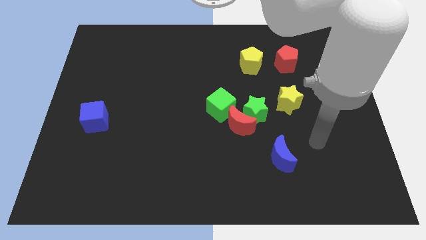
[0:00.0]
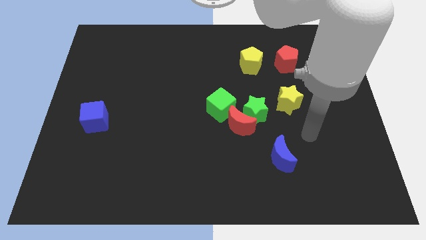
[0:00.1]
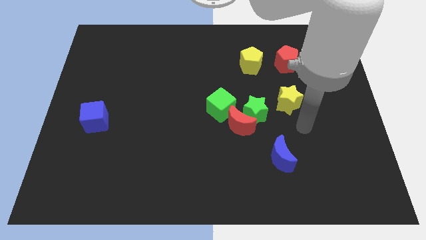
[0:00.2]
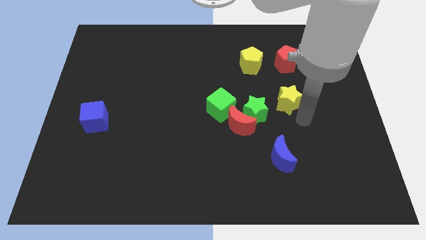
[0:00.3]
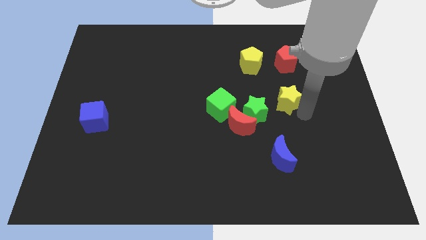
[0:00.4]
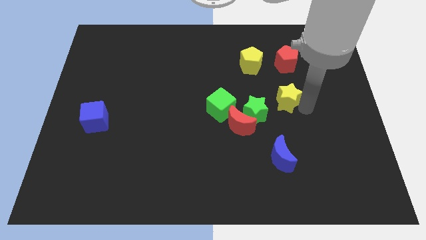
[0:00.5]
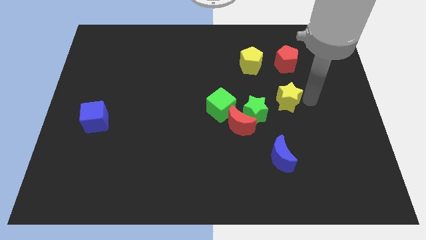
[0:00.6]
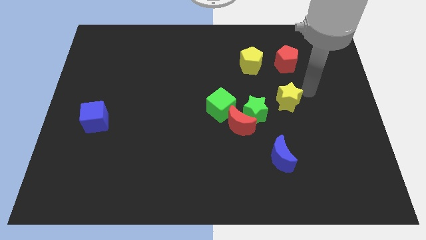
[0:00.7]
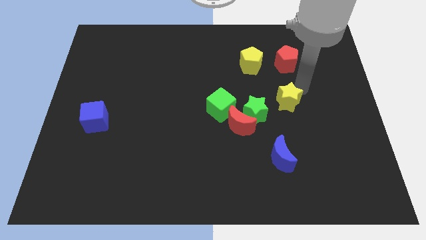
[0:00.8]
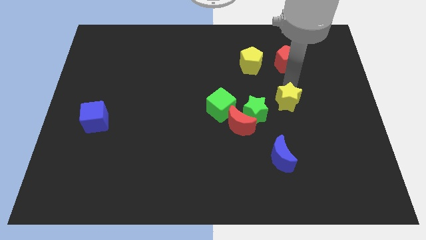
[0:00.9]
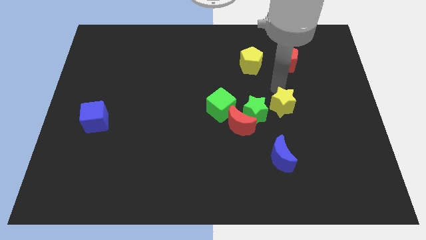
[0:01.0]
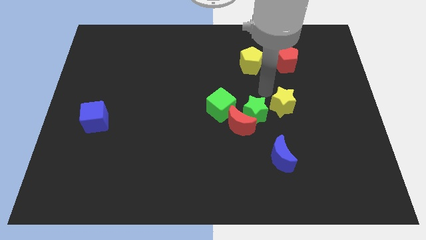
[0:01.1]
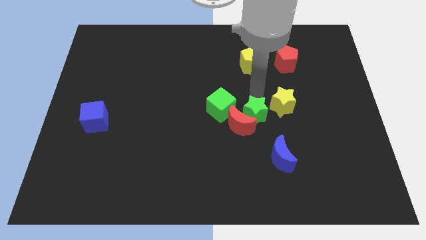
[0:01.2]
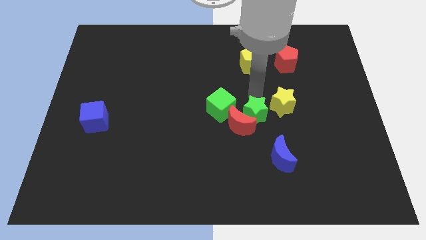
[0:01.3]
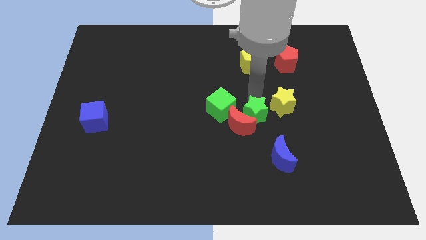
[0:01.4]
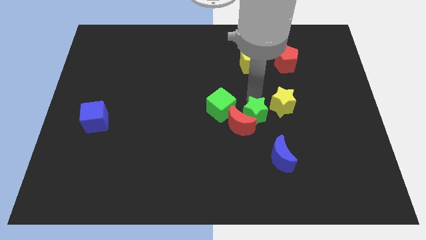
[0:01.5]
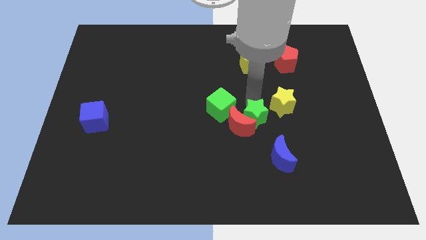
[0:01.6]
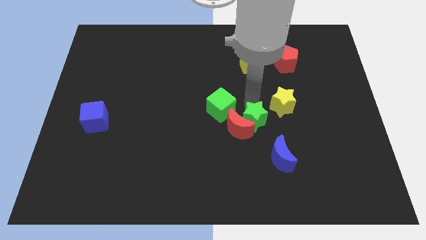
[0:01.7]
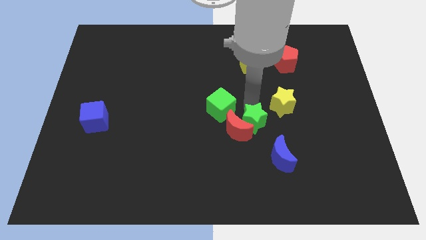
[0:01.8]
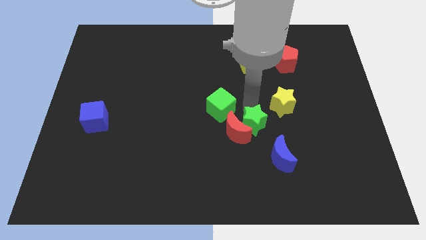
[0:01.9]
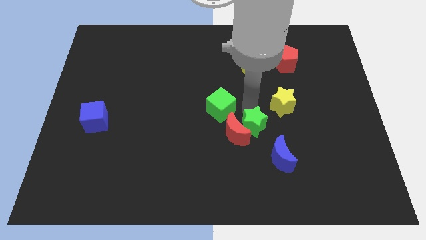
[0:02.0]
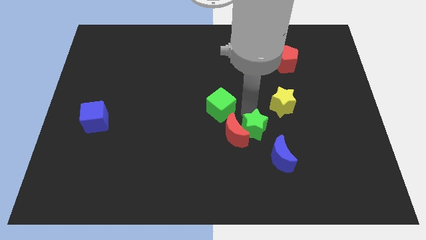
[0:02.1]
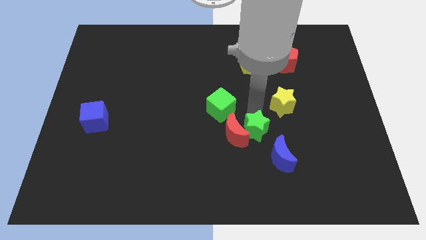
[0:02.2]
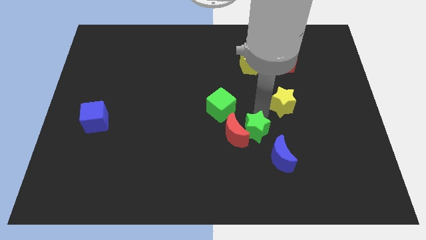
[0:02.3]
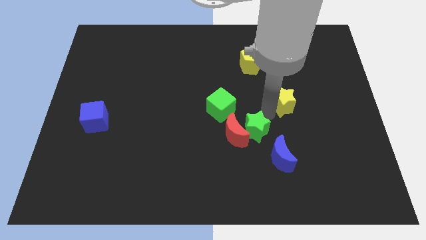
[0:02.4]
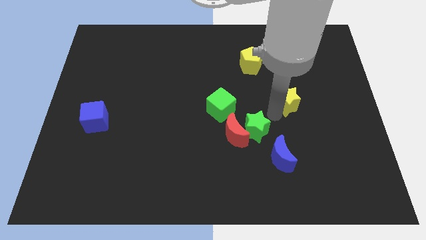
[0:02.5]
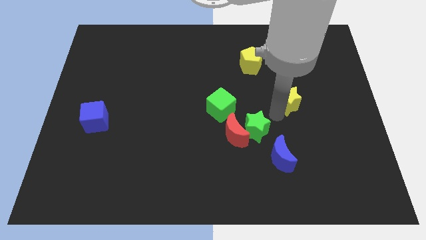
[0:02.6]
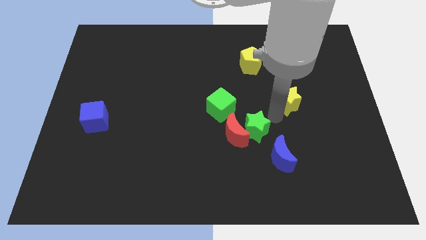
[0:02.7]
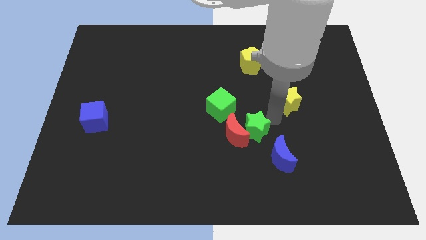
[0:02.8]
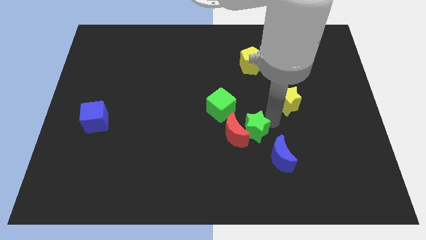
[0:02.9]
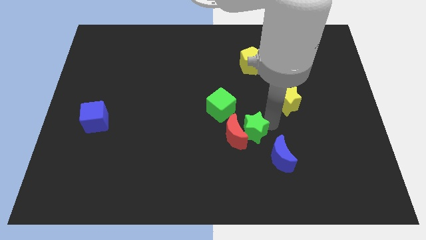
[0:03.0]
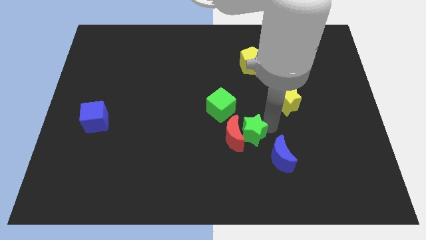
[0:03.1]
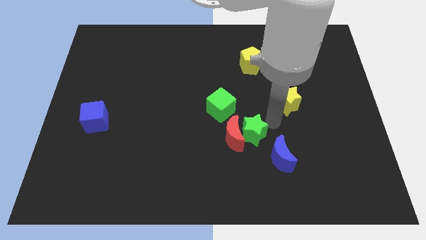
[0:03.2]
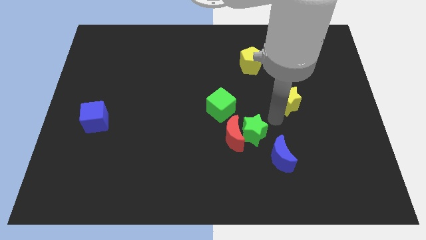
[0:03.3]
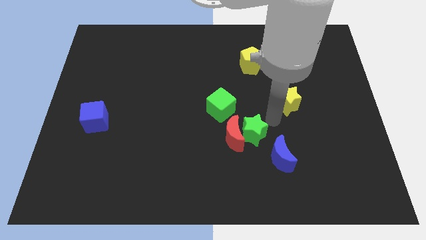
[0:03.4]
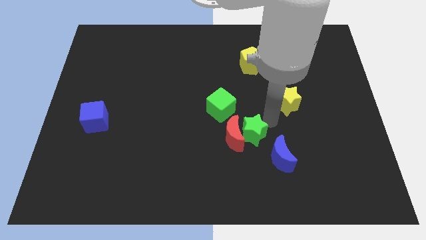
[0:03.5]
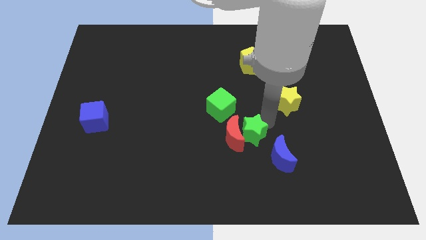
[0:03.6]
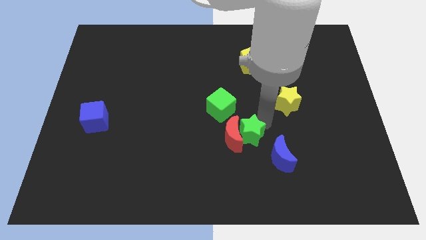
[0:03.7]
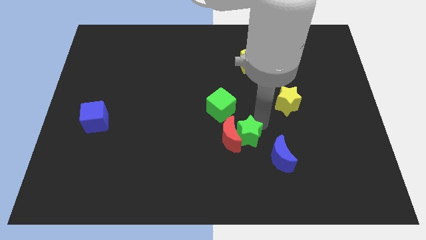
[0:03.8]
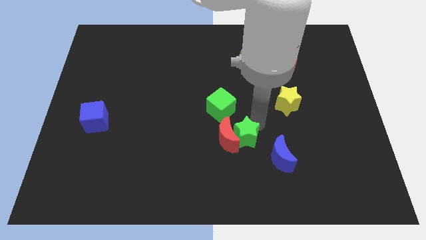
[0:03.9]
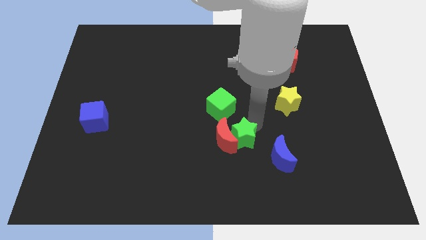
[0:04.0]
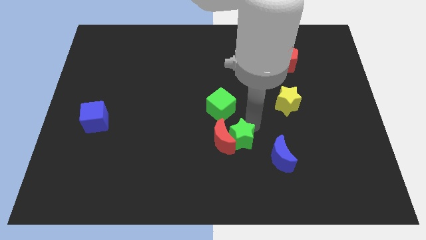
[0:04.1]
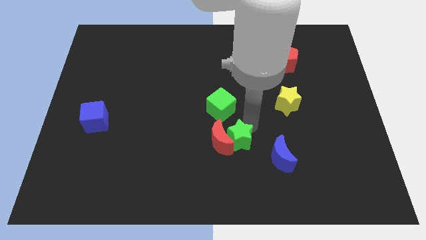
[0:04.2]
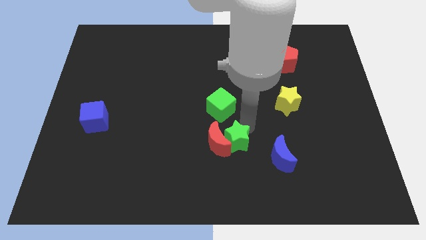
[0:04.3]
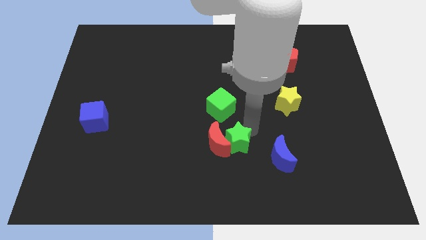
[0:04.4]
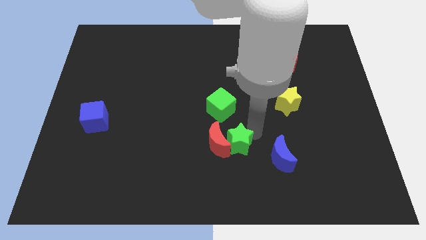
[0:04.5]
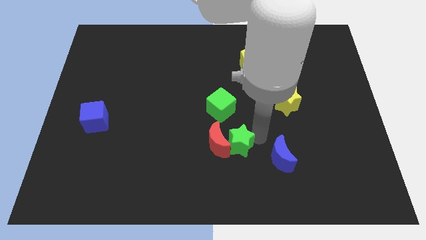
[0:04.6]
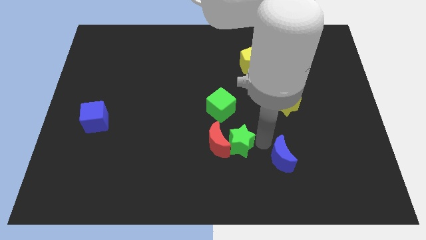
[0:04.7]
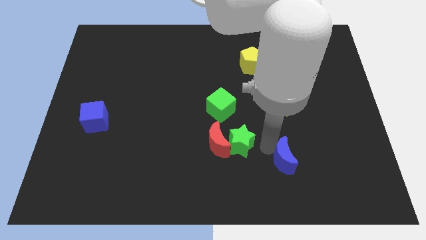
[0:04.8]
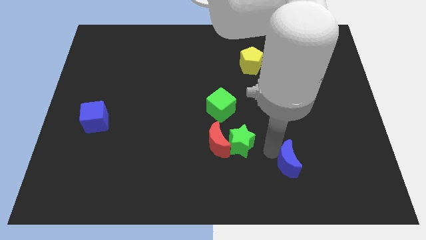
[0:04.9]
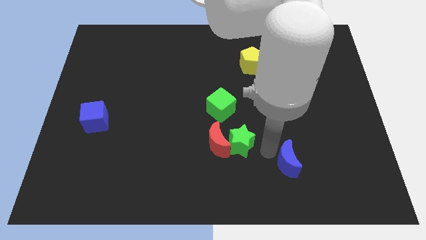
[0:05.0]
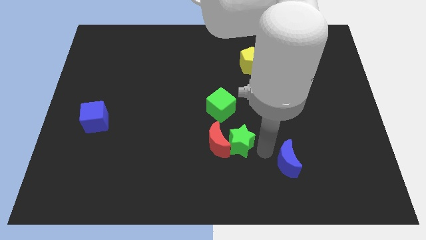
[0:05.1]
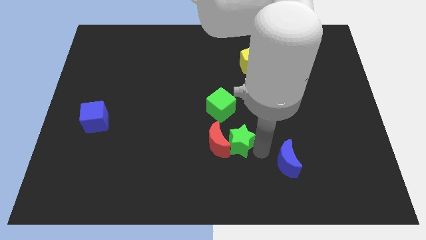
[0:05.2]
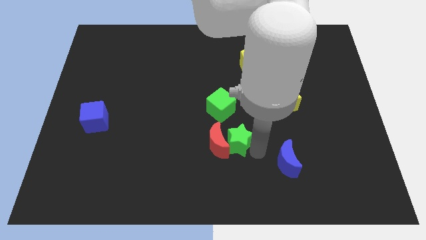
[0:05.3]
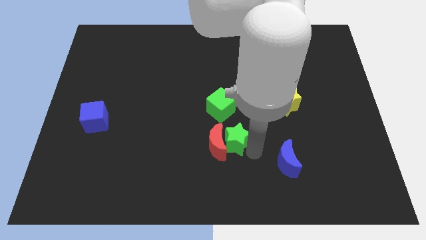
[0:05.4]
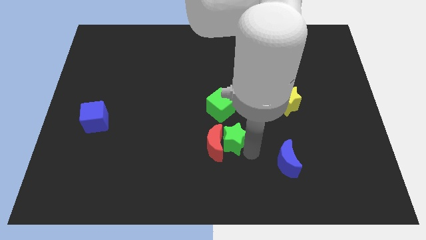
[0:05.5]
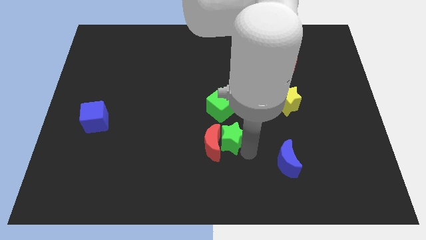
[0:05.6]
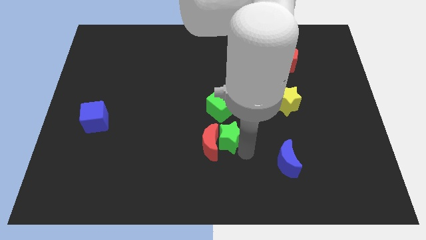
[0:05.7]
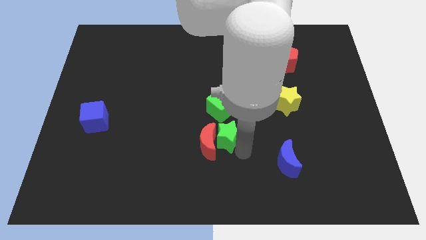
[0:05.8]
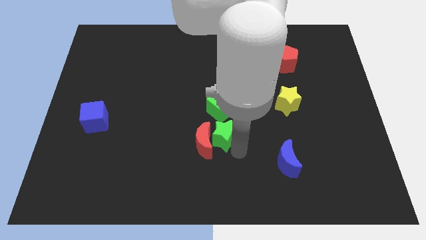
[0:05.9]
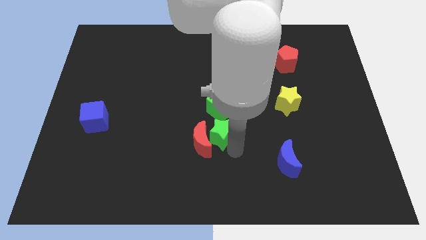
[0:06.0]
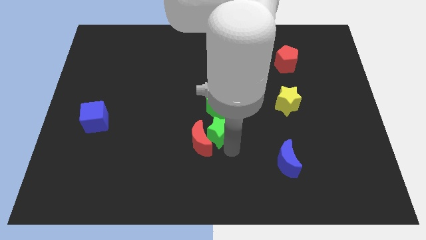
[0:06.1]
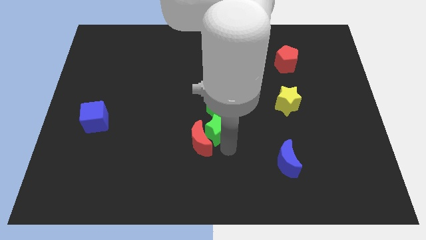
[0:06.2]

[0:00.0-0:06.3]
put the green star to the bottom left of the green cube
